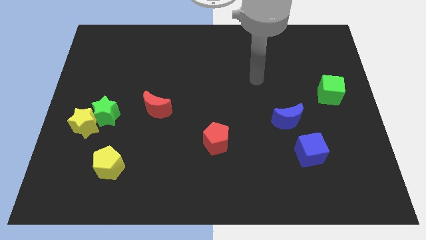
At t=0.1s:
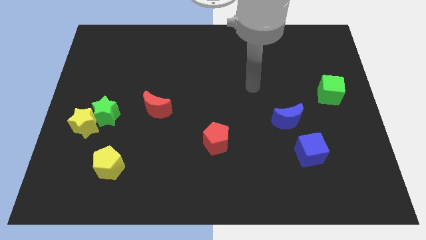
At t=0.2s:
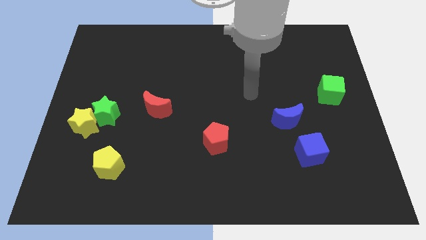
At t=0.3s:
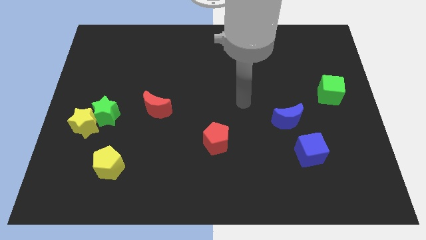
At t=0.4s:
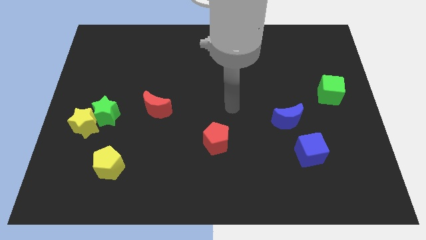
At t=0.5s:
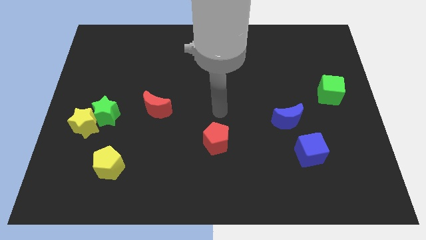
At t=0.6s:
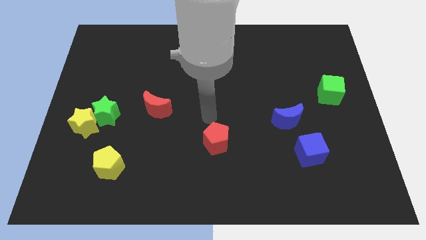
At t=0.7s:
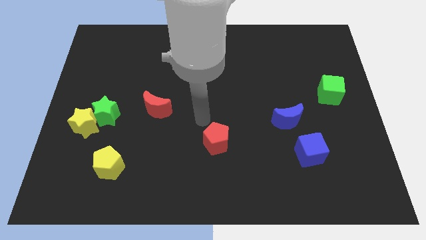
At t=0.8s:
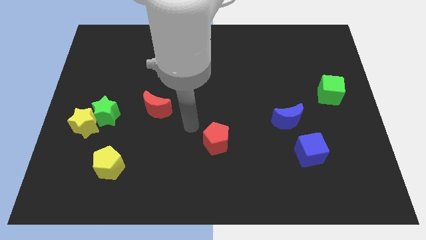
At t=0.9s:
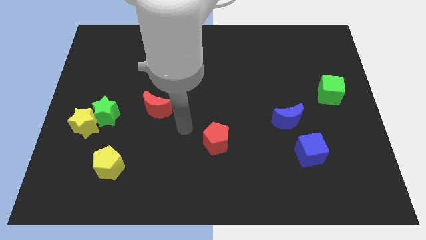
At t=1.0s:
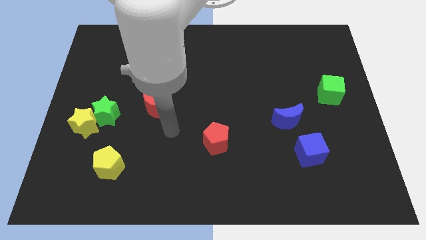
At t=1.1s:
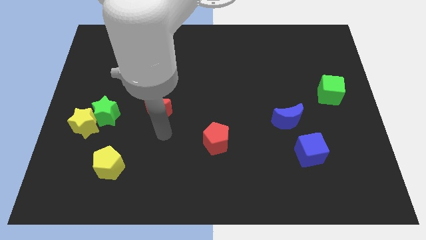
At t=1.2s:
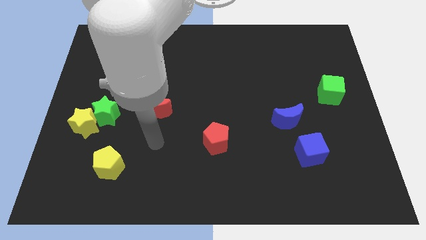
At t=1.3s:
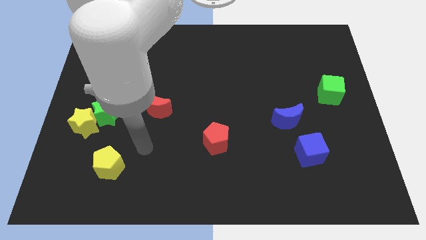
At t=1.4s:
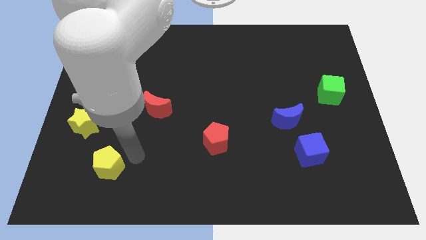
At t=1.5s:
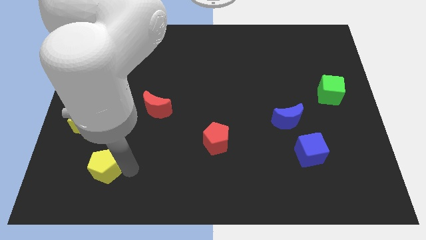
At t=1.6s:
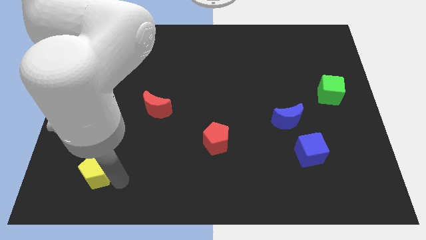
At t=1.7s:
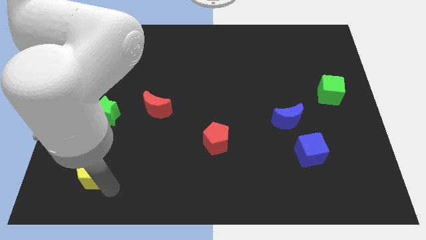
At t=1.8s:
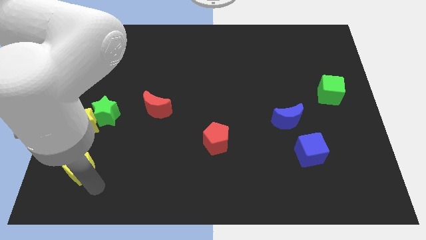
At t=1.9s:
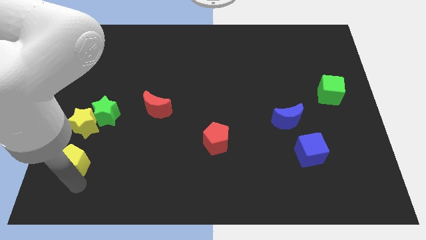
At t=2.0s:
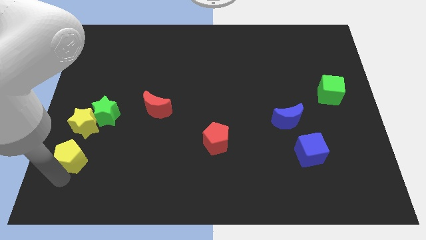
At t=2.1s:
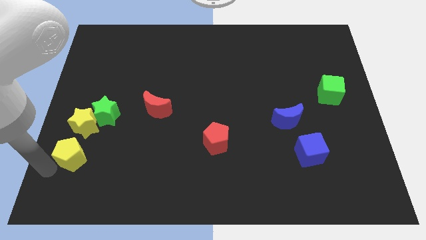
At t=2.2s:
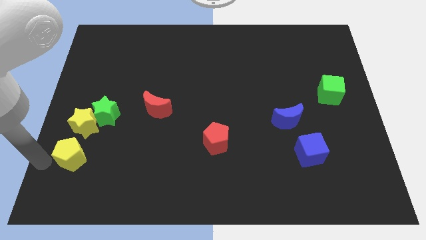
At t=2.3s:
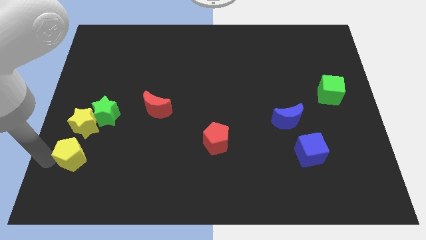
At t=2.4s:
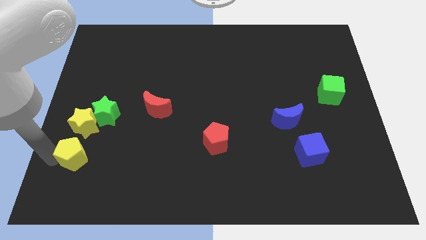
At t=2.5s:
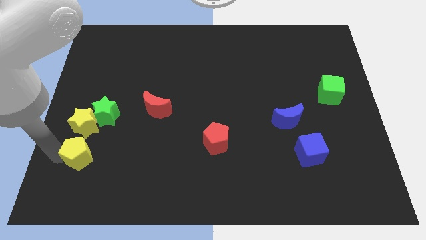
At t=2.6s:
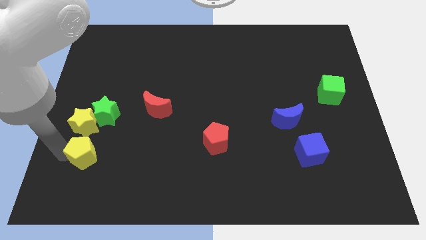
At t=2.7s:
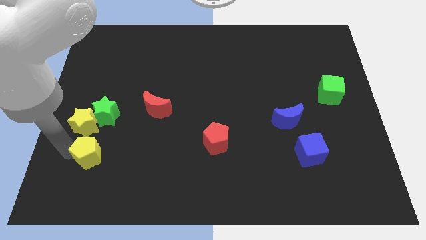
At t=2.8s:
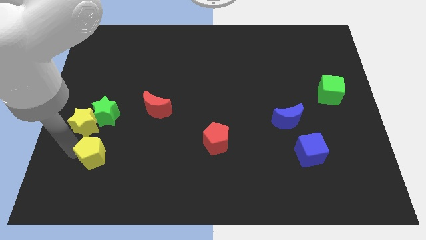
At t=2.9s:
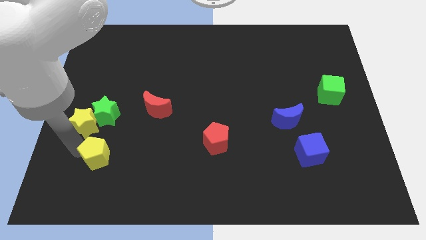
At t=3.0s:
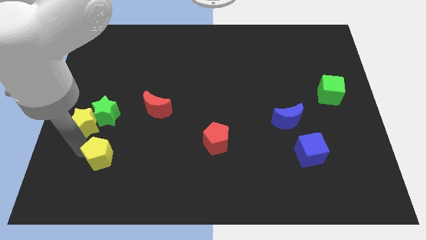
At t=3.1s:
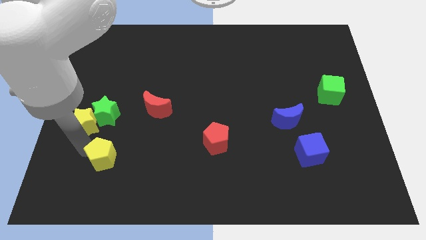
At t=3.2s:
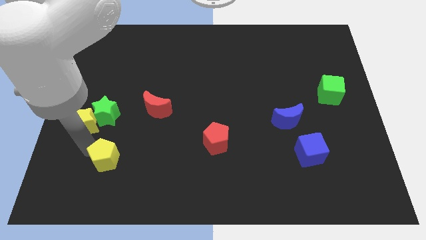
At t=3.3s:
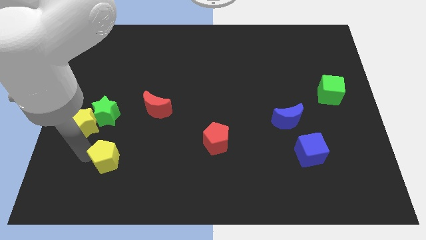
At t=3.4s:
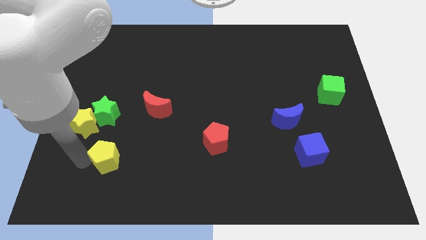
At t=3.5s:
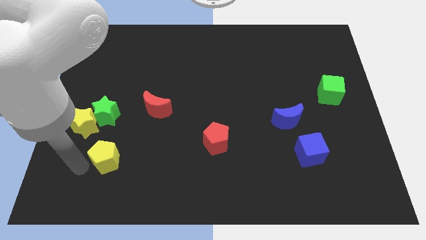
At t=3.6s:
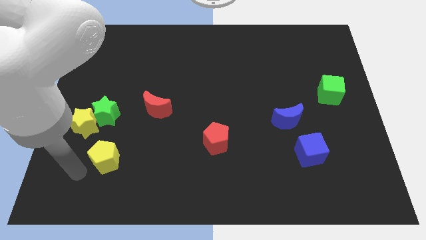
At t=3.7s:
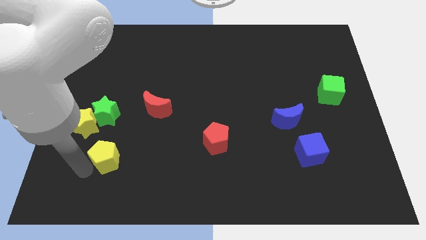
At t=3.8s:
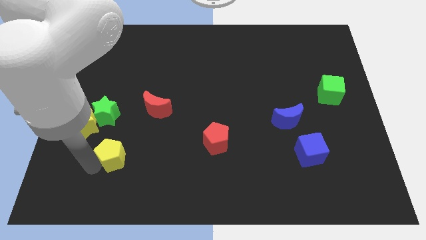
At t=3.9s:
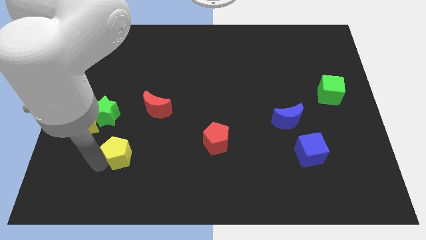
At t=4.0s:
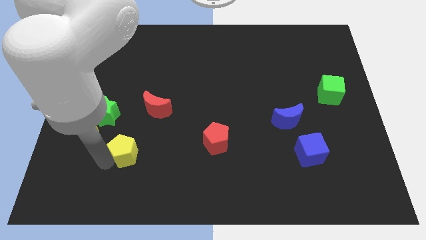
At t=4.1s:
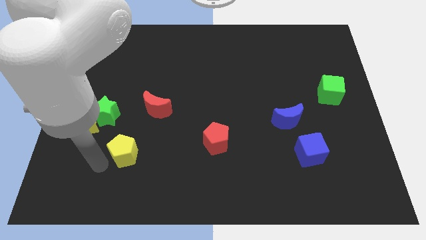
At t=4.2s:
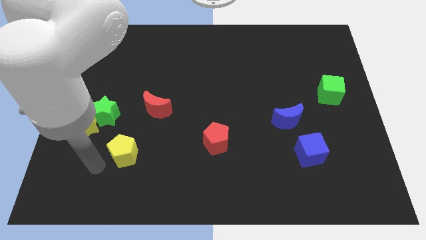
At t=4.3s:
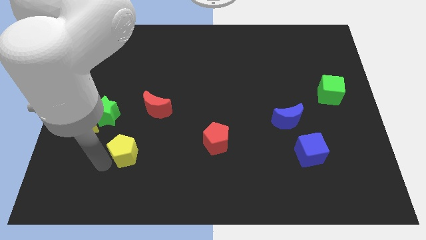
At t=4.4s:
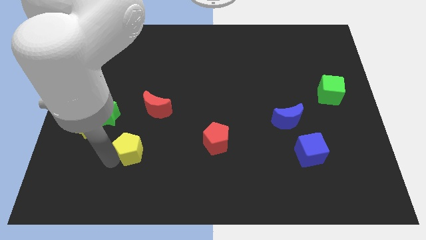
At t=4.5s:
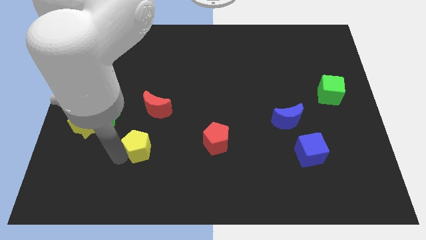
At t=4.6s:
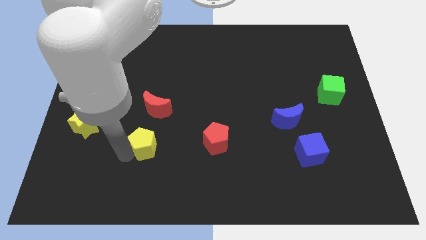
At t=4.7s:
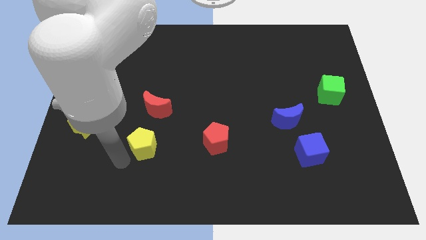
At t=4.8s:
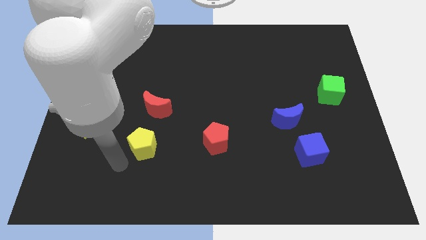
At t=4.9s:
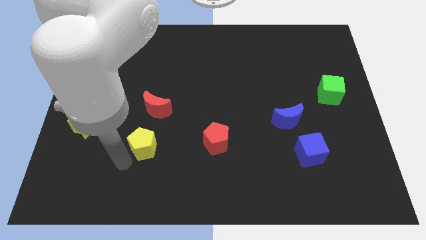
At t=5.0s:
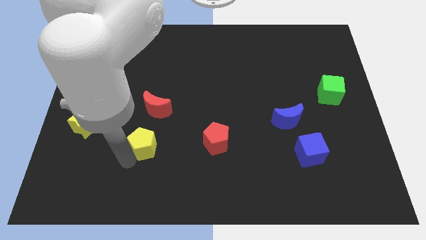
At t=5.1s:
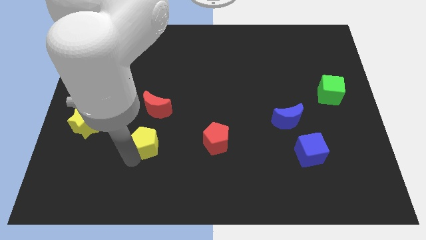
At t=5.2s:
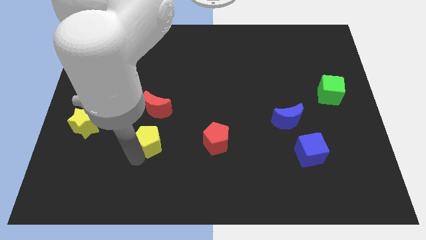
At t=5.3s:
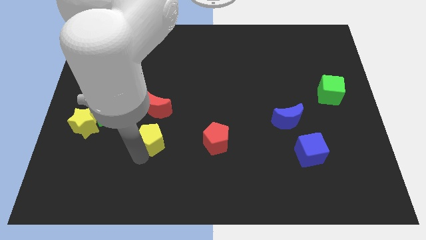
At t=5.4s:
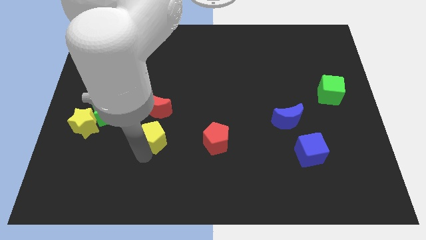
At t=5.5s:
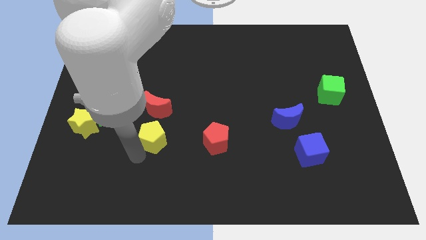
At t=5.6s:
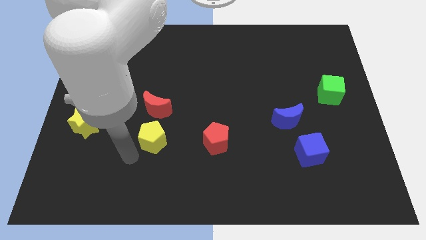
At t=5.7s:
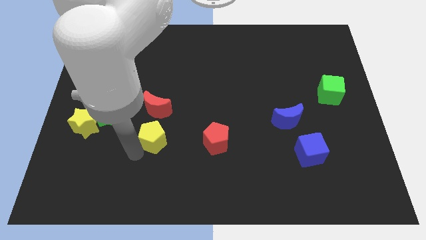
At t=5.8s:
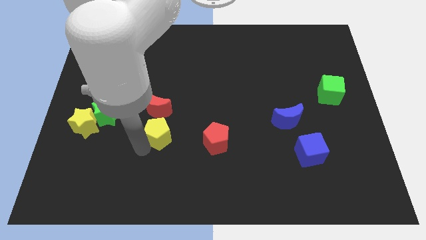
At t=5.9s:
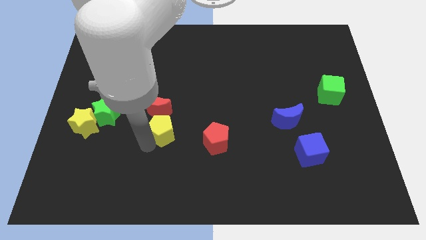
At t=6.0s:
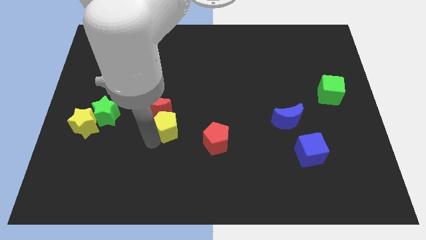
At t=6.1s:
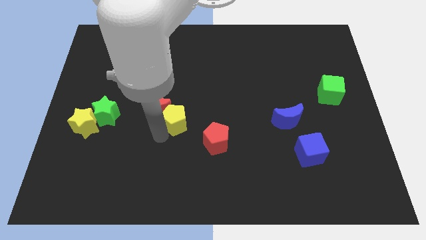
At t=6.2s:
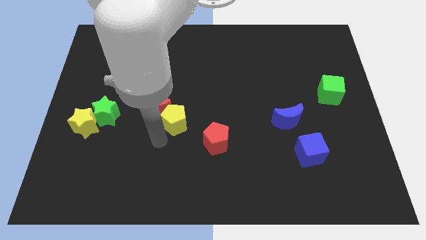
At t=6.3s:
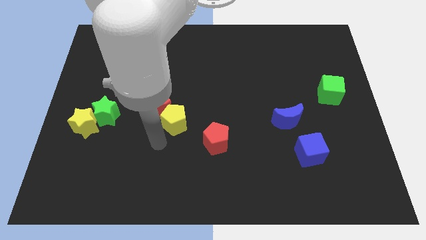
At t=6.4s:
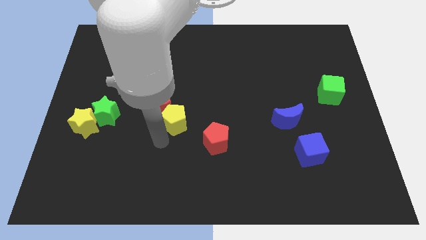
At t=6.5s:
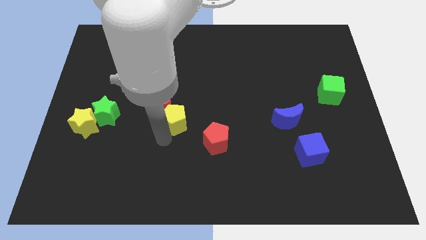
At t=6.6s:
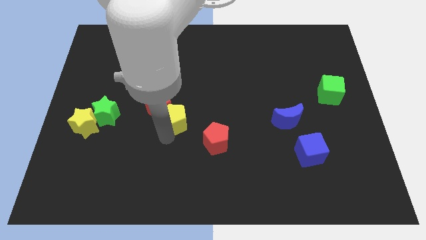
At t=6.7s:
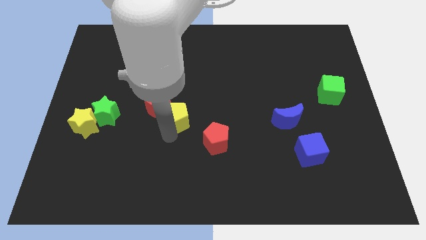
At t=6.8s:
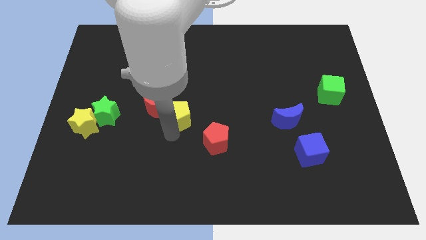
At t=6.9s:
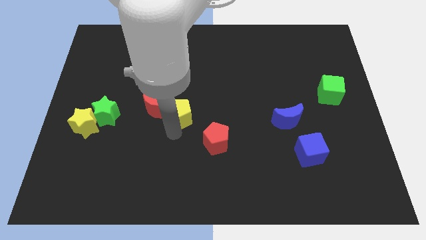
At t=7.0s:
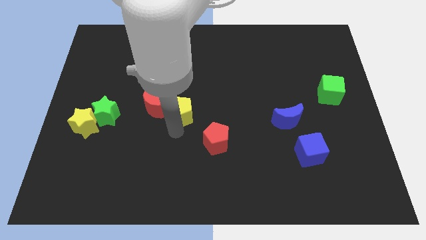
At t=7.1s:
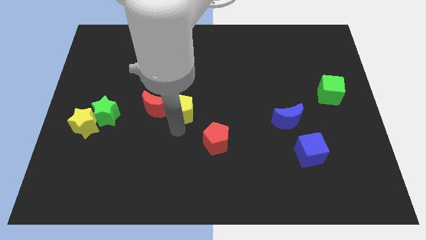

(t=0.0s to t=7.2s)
slide the yellow pentagon upwards and then to the right

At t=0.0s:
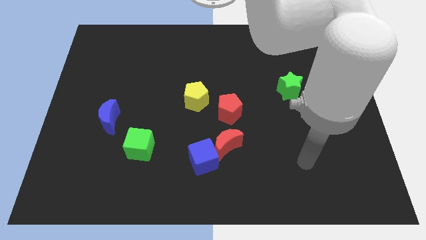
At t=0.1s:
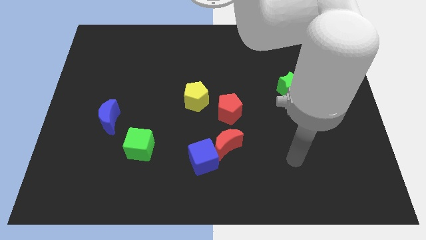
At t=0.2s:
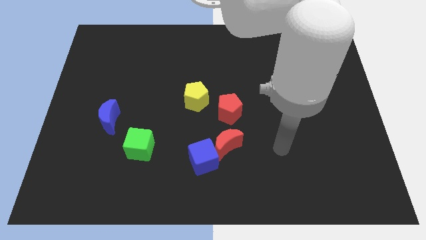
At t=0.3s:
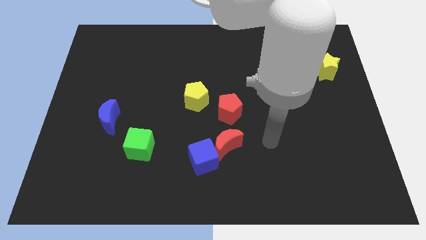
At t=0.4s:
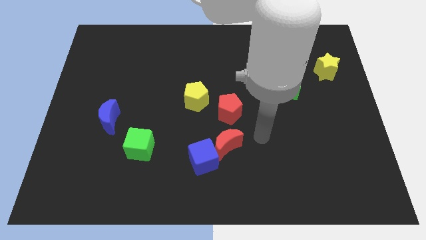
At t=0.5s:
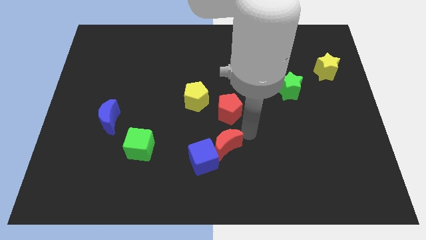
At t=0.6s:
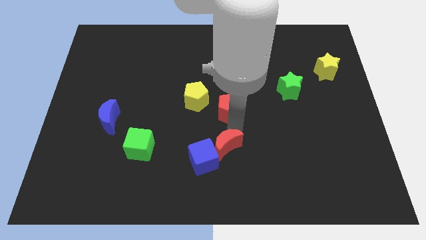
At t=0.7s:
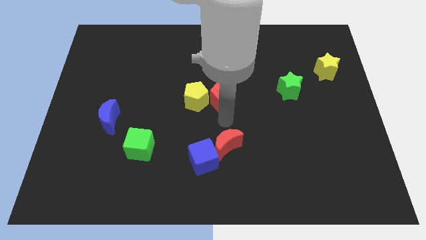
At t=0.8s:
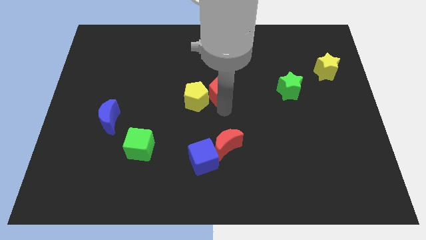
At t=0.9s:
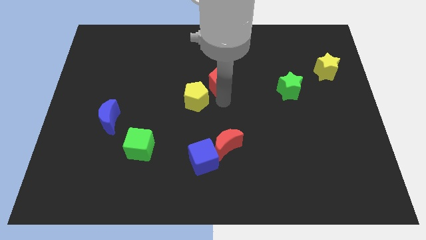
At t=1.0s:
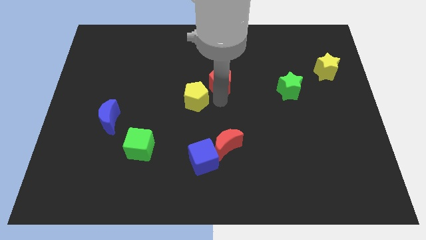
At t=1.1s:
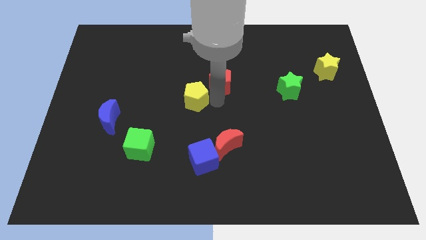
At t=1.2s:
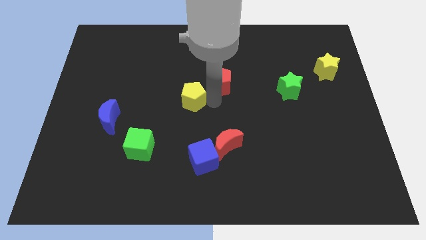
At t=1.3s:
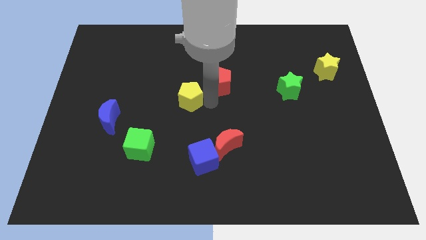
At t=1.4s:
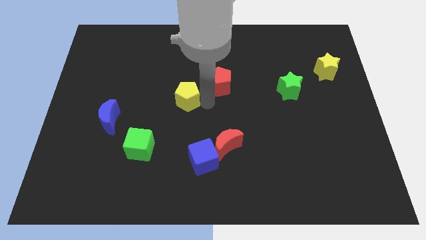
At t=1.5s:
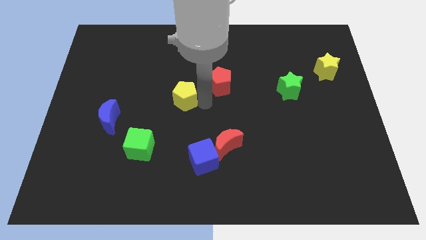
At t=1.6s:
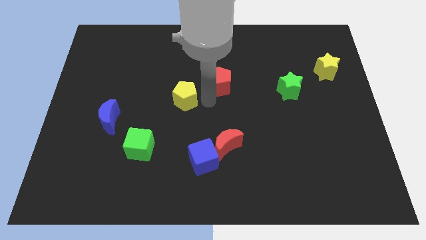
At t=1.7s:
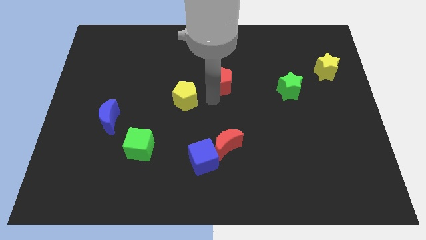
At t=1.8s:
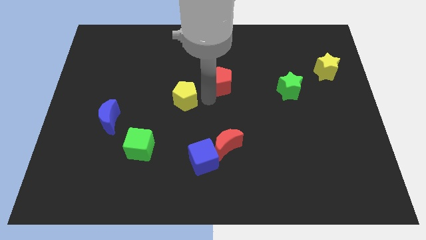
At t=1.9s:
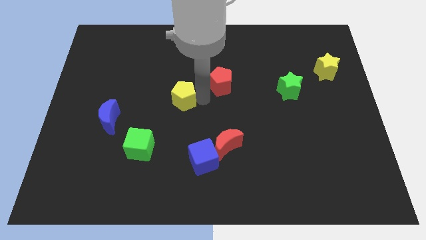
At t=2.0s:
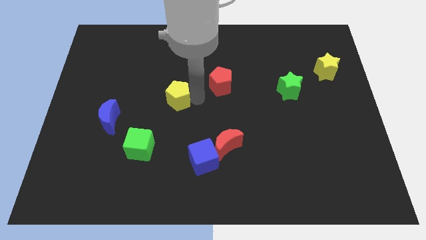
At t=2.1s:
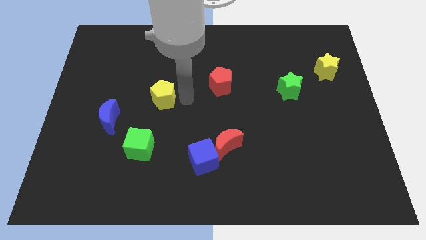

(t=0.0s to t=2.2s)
slide the yellow pentagon left slightly
